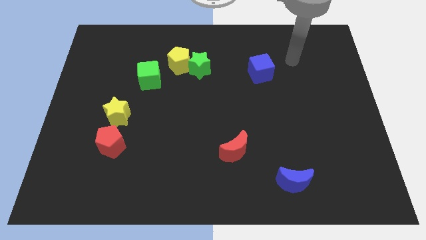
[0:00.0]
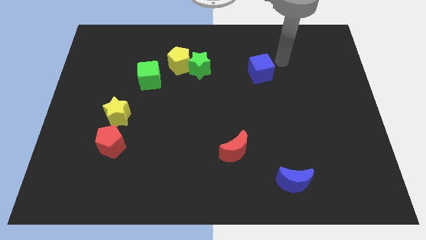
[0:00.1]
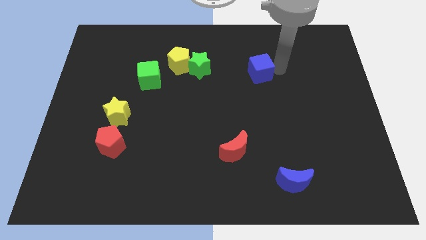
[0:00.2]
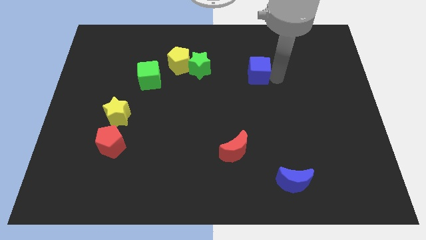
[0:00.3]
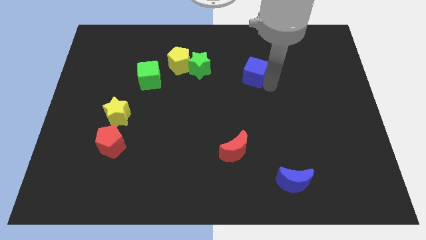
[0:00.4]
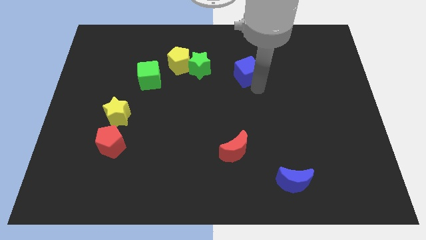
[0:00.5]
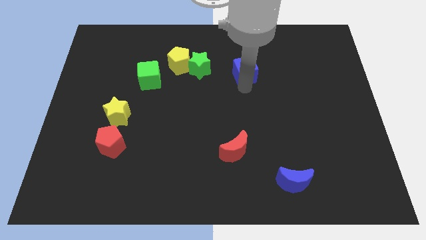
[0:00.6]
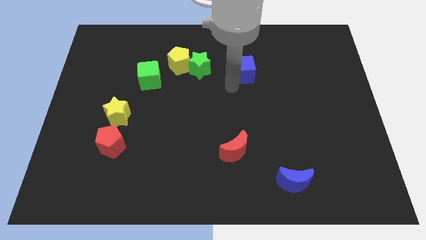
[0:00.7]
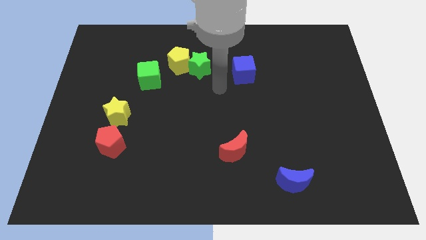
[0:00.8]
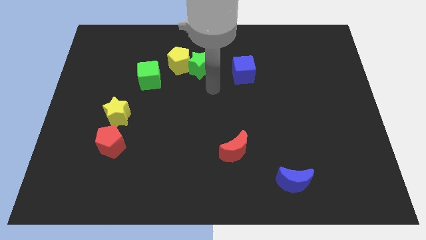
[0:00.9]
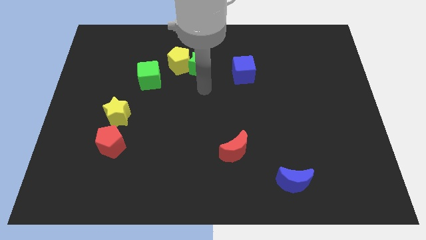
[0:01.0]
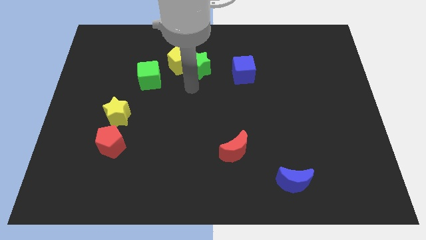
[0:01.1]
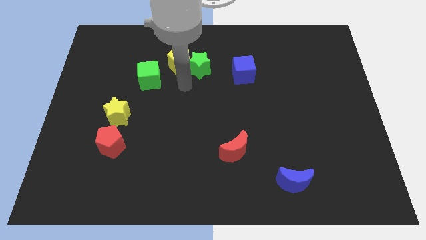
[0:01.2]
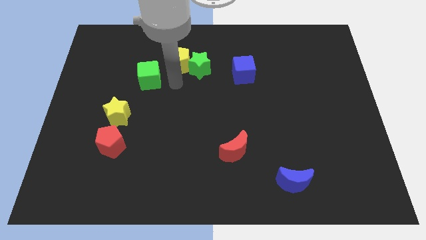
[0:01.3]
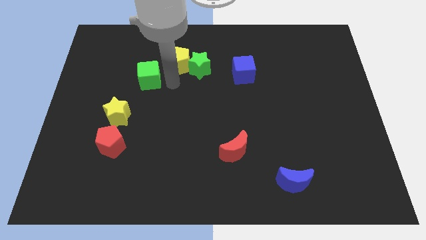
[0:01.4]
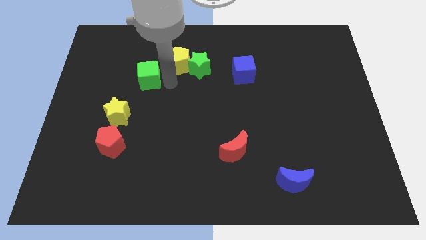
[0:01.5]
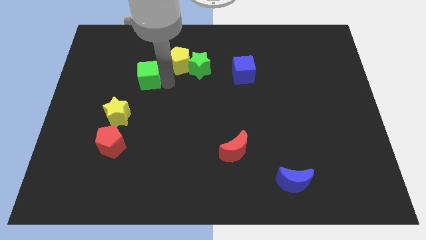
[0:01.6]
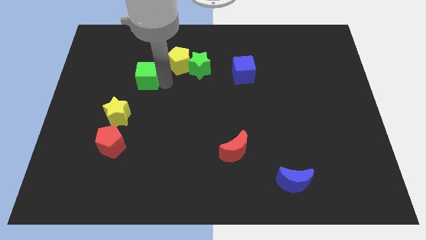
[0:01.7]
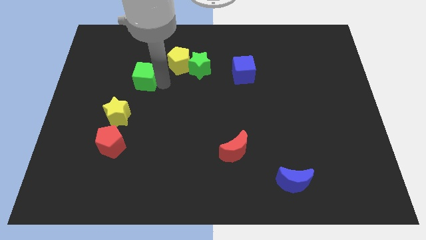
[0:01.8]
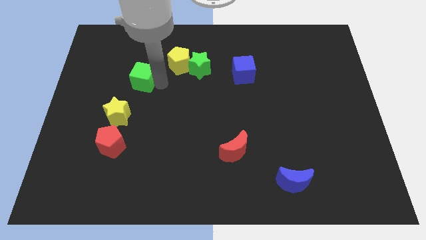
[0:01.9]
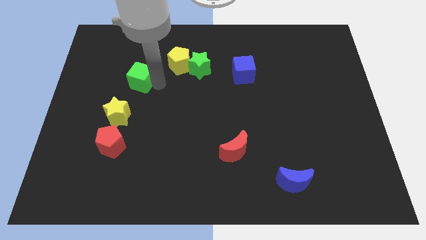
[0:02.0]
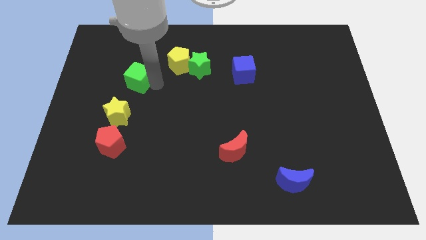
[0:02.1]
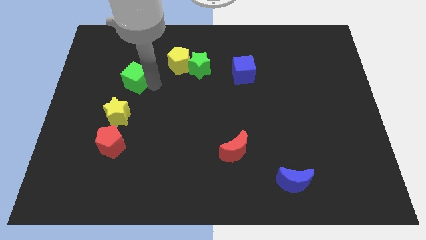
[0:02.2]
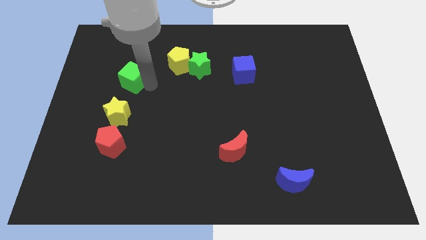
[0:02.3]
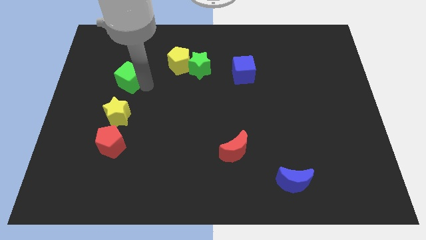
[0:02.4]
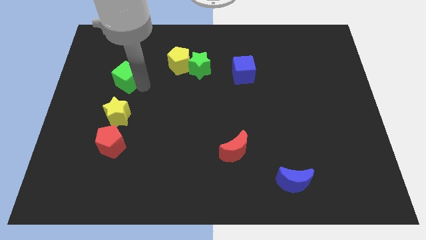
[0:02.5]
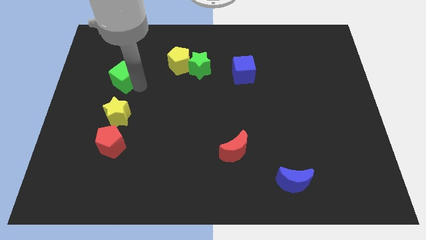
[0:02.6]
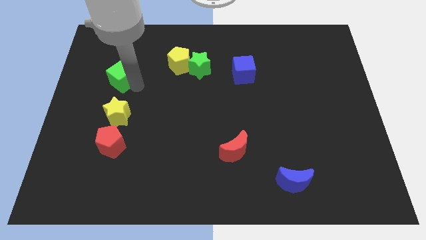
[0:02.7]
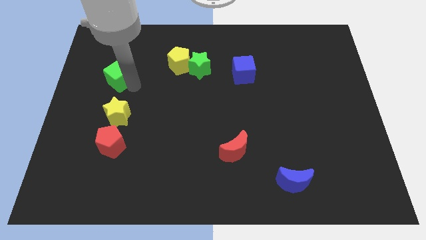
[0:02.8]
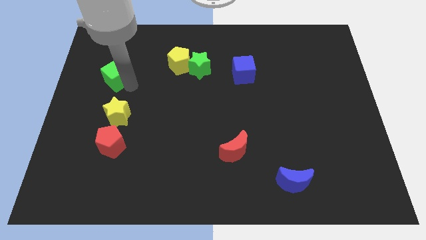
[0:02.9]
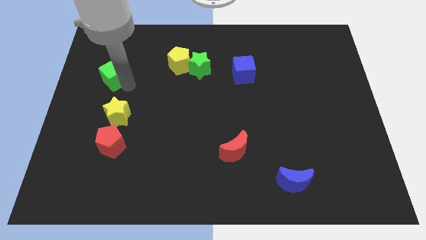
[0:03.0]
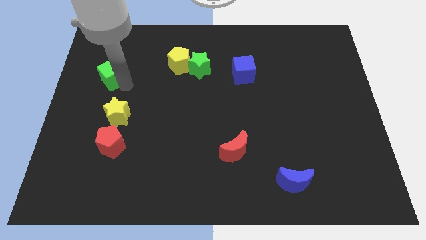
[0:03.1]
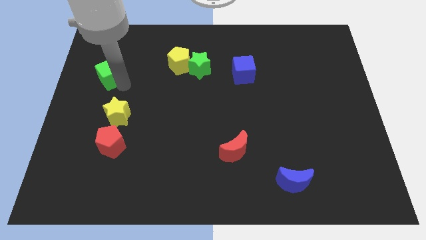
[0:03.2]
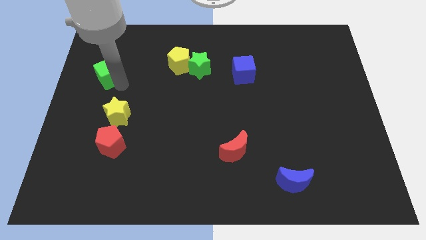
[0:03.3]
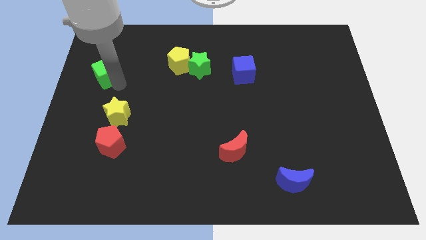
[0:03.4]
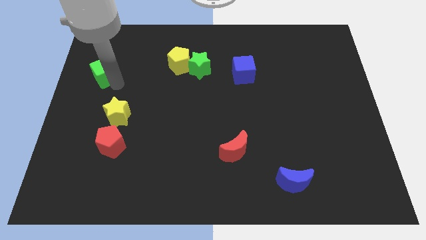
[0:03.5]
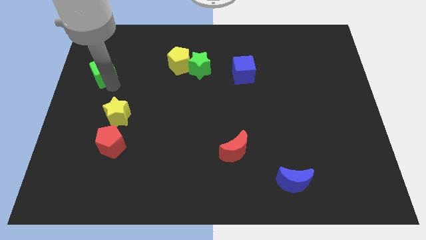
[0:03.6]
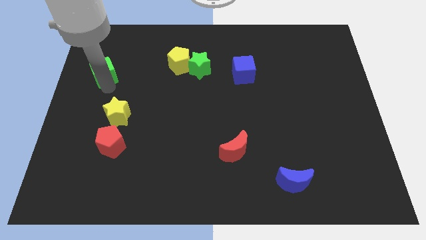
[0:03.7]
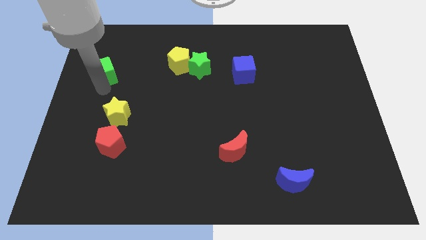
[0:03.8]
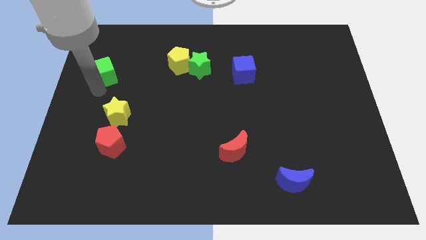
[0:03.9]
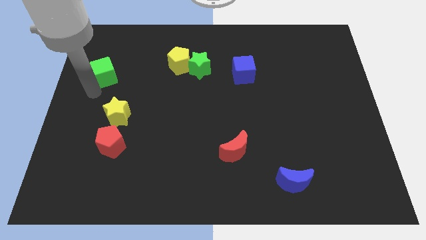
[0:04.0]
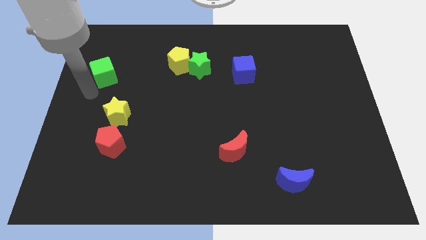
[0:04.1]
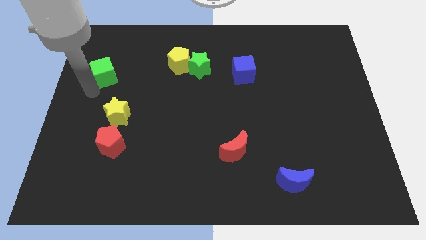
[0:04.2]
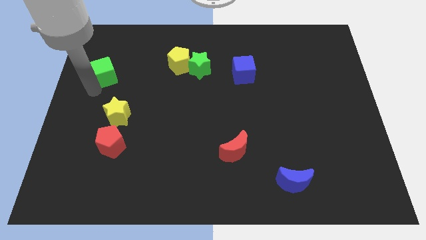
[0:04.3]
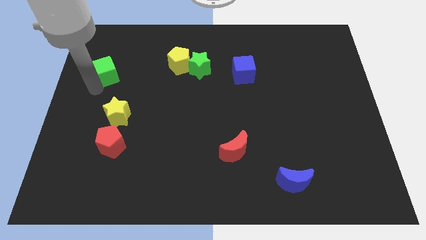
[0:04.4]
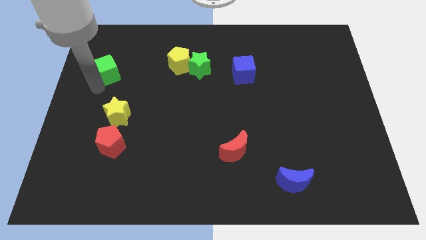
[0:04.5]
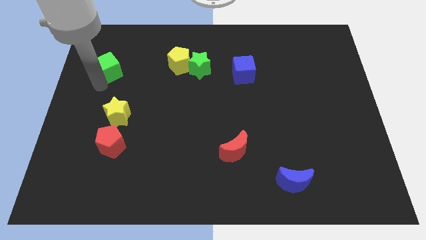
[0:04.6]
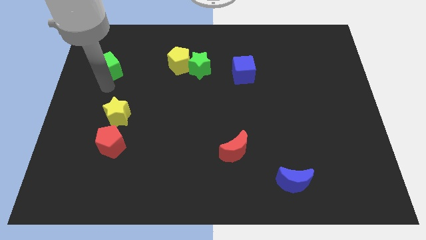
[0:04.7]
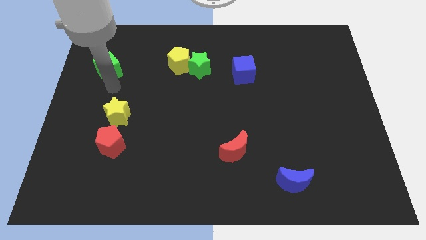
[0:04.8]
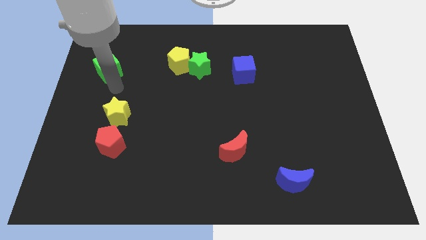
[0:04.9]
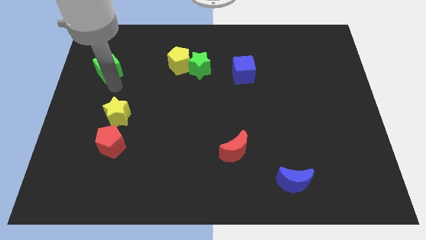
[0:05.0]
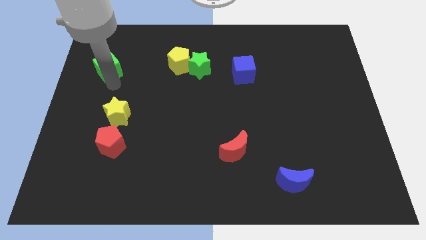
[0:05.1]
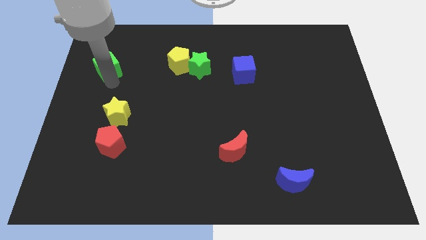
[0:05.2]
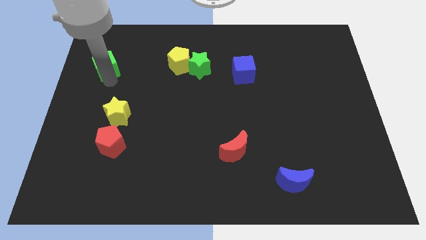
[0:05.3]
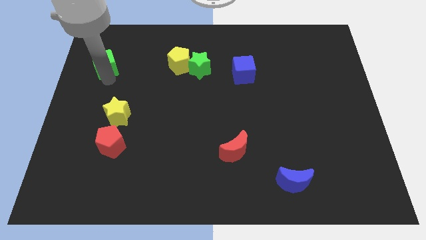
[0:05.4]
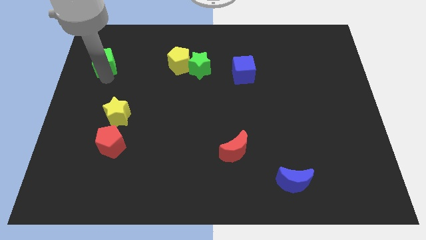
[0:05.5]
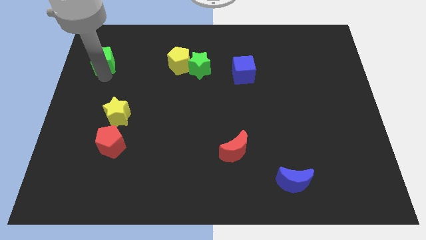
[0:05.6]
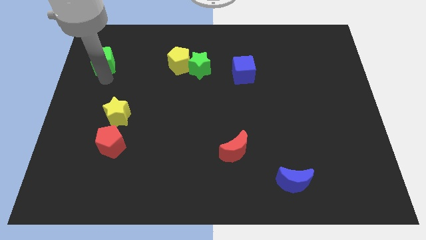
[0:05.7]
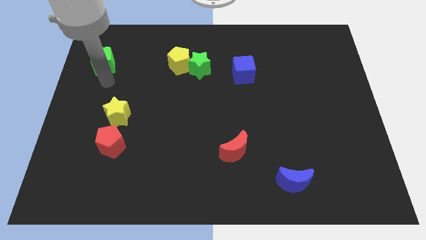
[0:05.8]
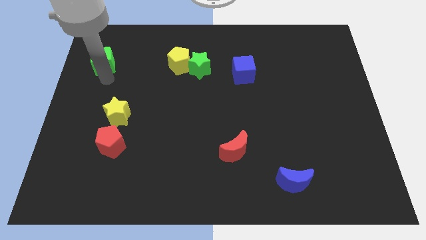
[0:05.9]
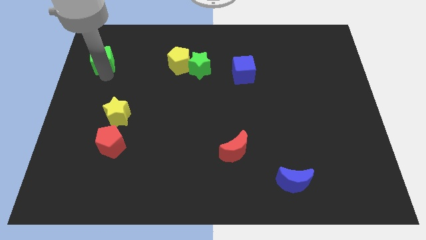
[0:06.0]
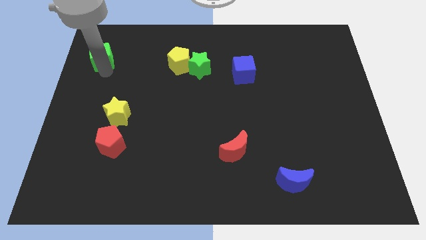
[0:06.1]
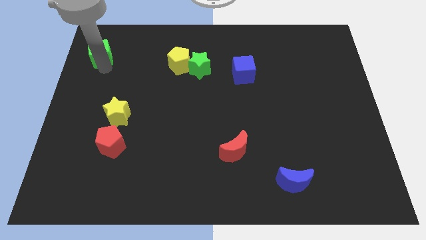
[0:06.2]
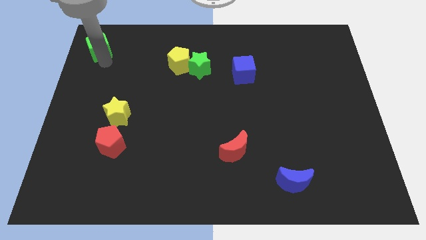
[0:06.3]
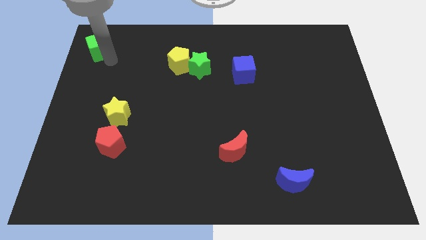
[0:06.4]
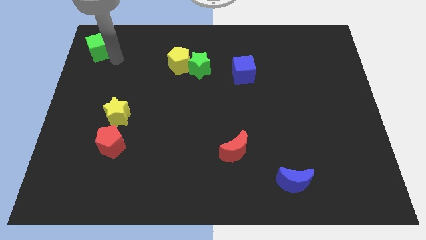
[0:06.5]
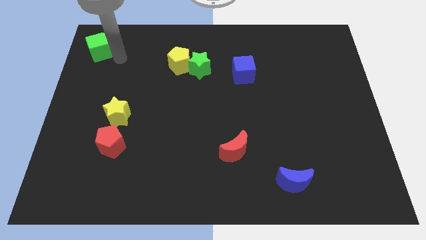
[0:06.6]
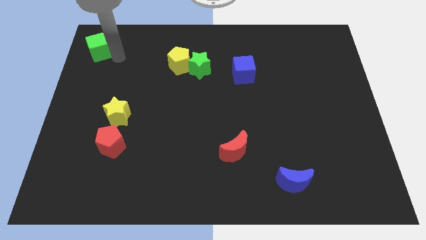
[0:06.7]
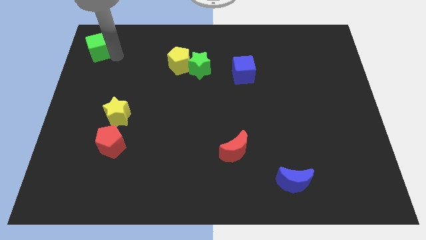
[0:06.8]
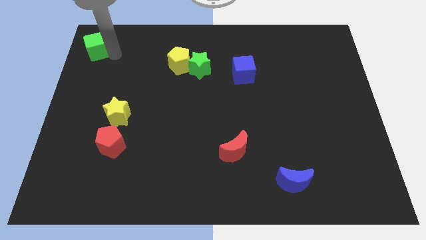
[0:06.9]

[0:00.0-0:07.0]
put the green cube to the top left
